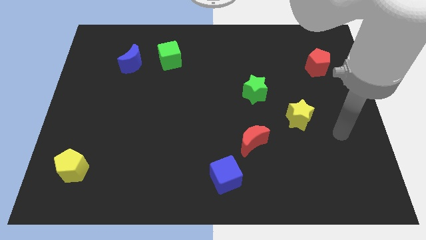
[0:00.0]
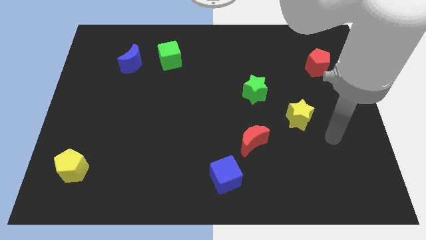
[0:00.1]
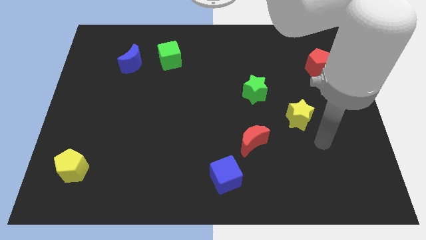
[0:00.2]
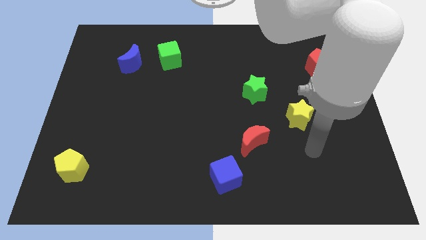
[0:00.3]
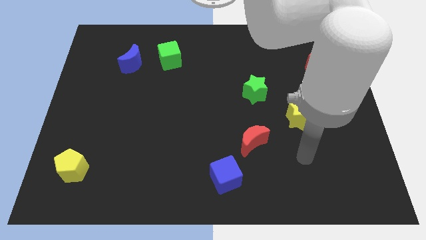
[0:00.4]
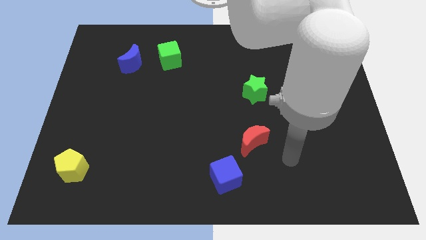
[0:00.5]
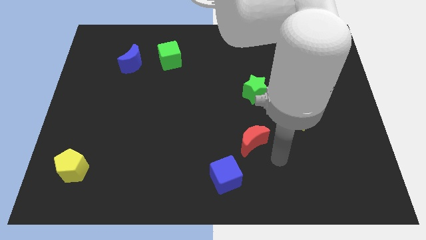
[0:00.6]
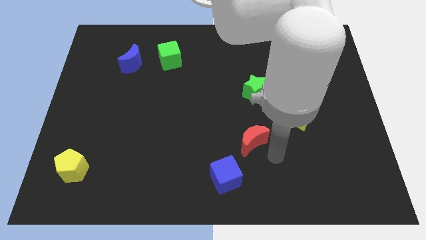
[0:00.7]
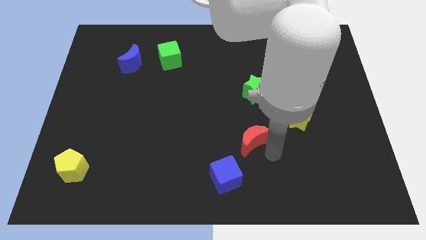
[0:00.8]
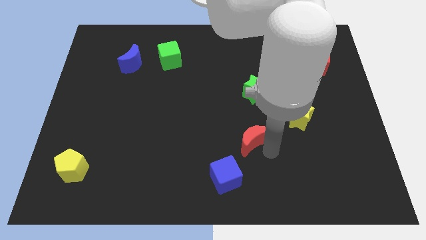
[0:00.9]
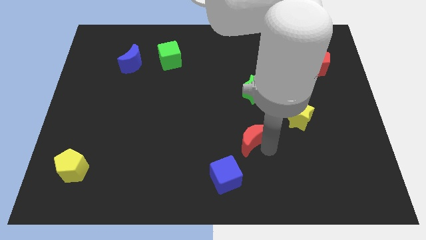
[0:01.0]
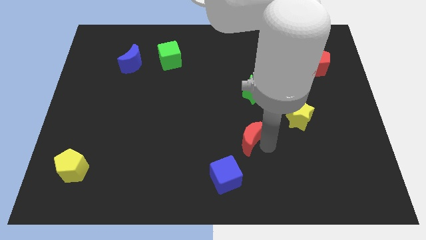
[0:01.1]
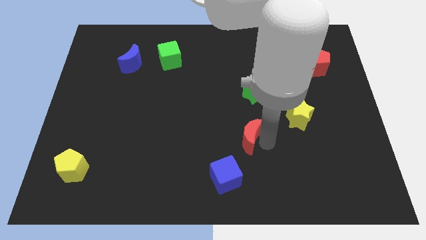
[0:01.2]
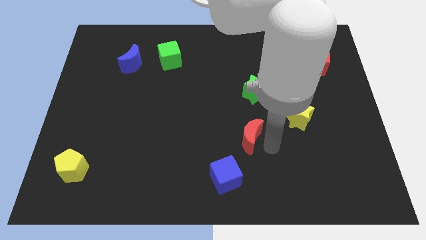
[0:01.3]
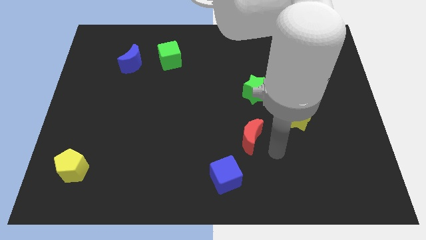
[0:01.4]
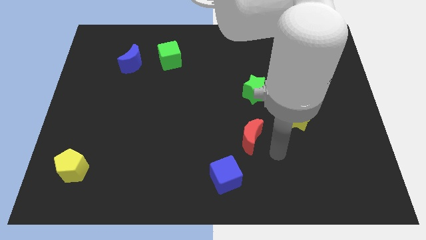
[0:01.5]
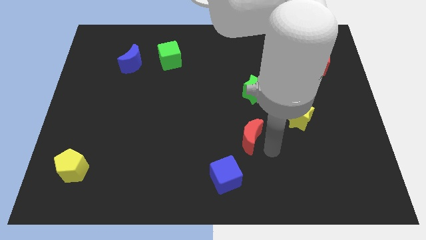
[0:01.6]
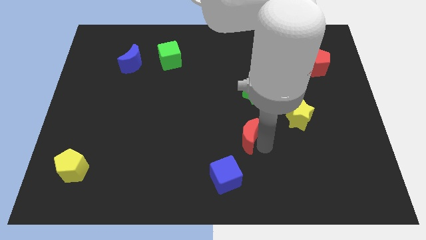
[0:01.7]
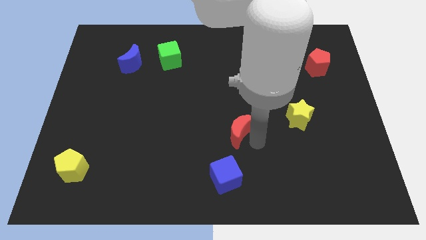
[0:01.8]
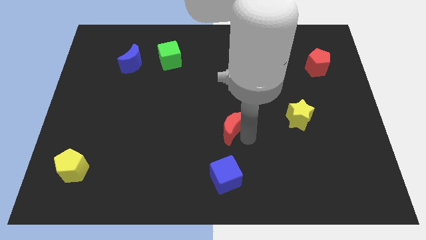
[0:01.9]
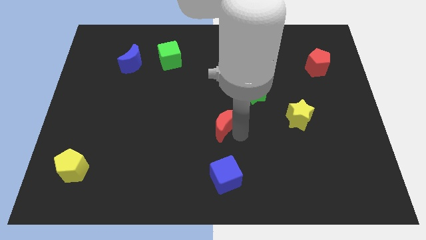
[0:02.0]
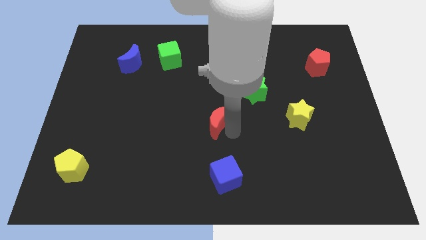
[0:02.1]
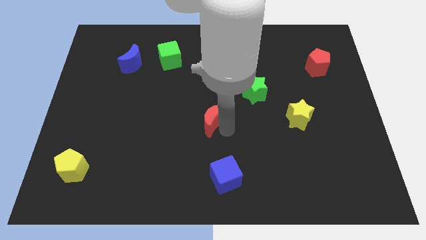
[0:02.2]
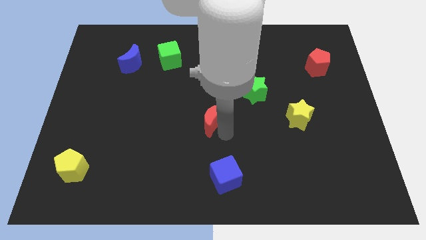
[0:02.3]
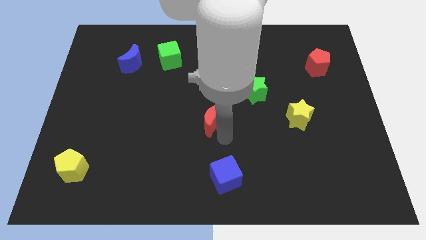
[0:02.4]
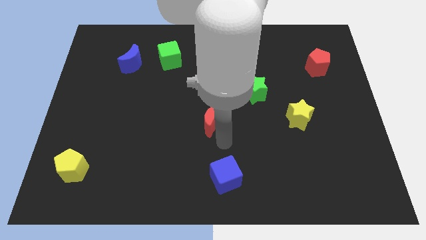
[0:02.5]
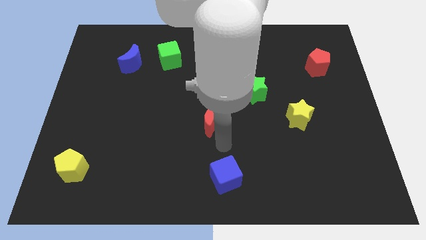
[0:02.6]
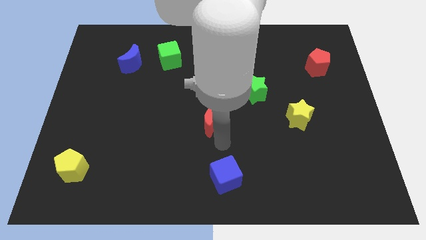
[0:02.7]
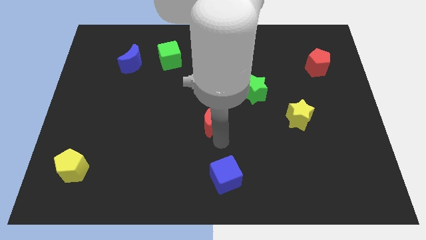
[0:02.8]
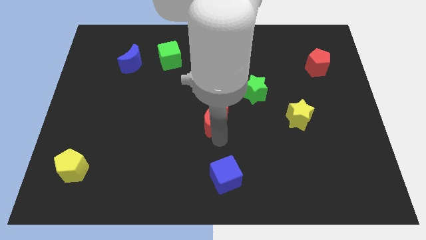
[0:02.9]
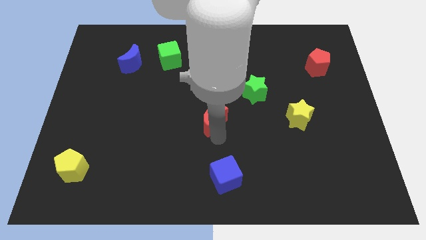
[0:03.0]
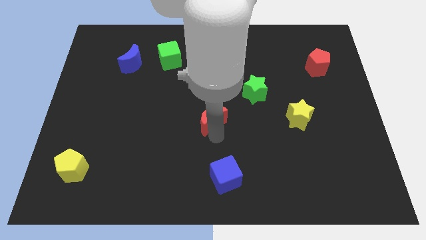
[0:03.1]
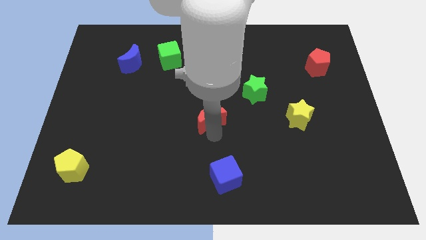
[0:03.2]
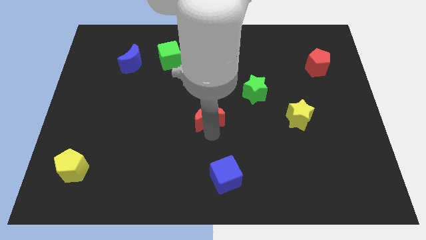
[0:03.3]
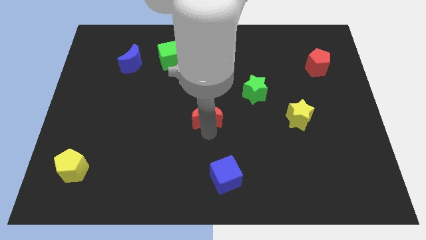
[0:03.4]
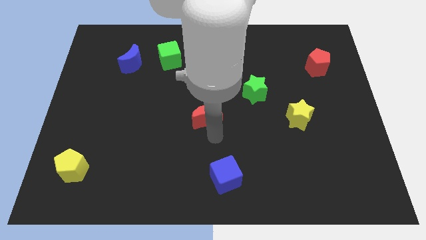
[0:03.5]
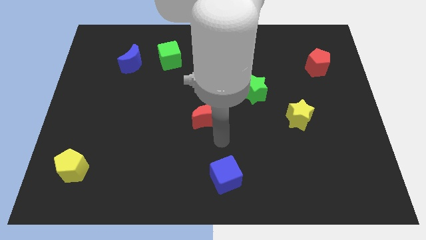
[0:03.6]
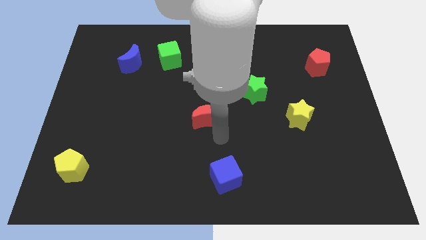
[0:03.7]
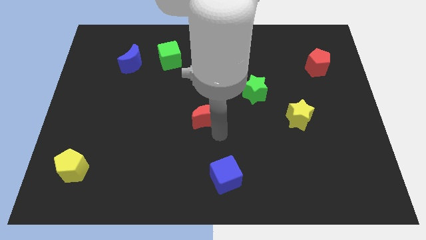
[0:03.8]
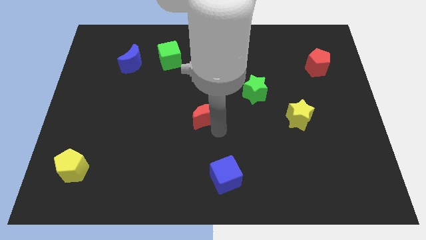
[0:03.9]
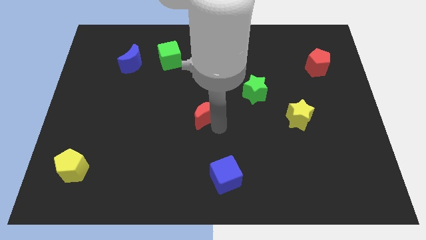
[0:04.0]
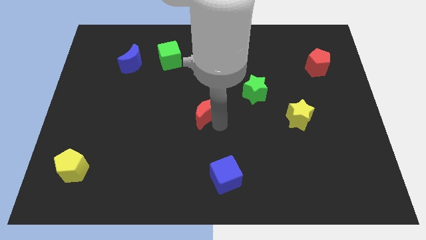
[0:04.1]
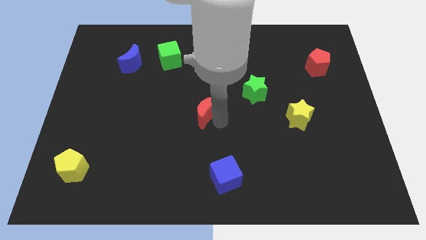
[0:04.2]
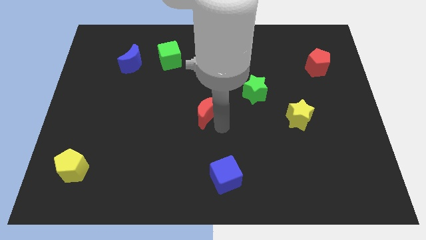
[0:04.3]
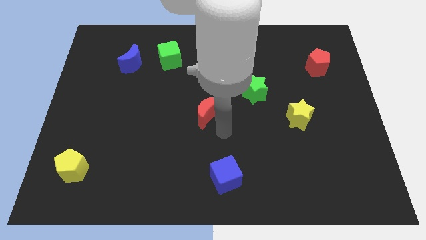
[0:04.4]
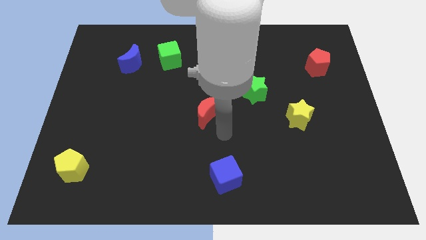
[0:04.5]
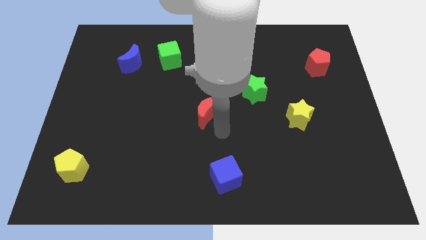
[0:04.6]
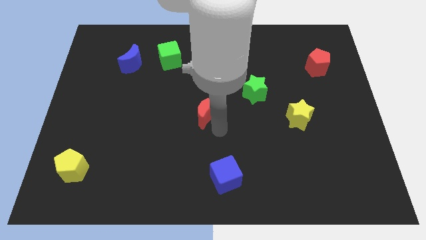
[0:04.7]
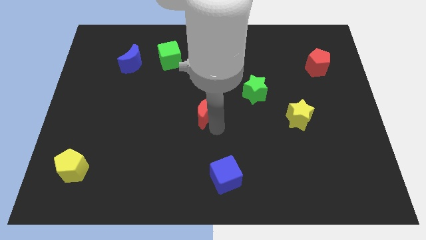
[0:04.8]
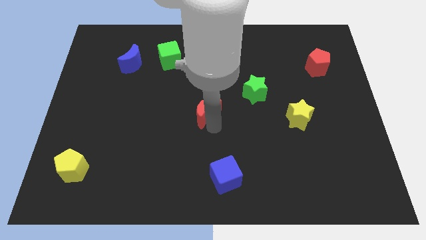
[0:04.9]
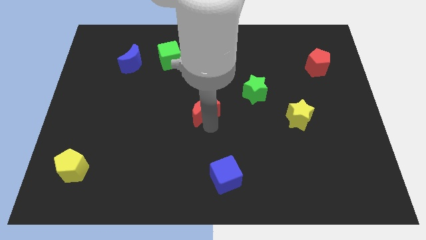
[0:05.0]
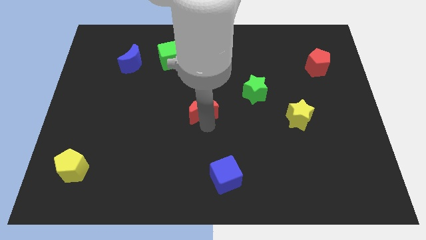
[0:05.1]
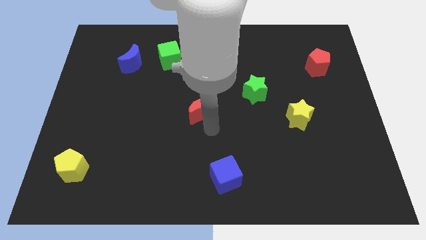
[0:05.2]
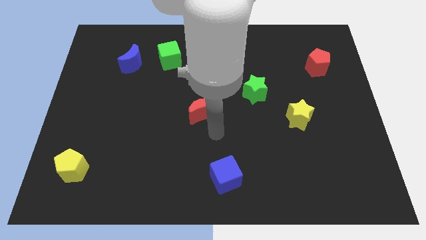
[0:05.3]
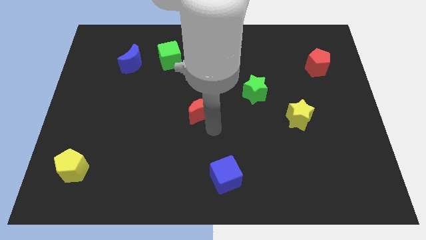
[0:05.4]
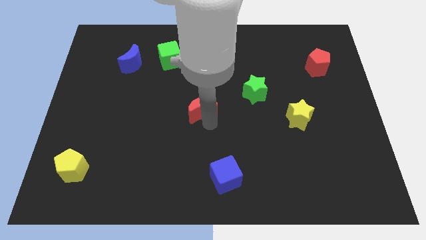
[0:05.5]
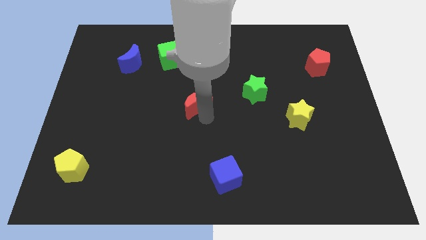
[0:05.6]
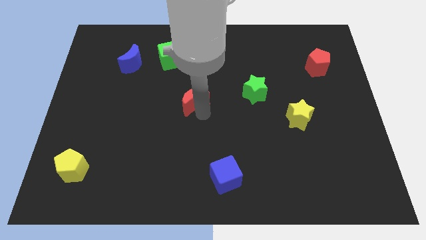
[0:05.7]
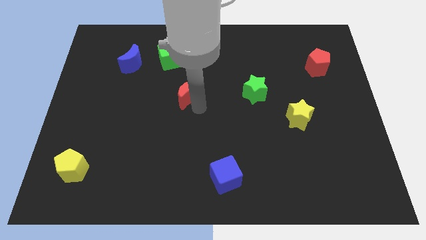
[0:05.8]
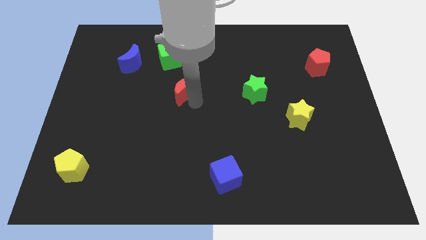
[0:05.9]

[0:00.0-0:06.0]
slide the red moon upwards and to the left diagonally

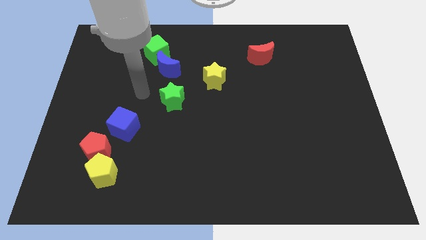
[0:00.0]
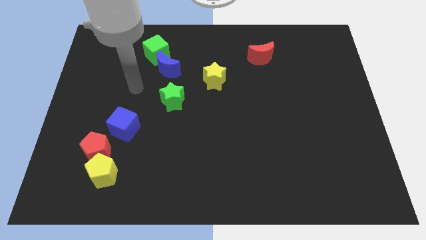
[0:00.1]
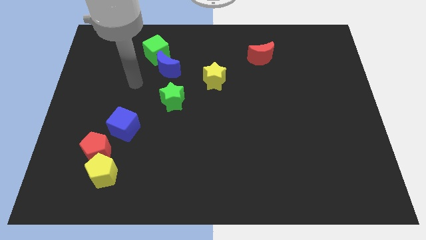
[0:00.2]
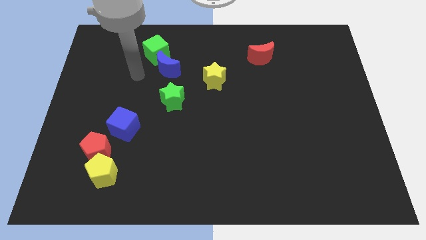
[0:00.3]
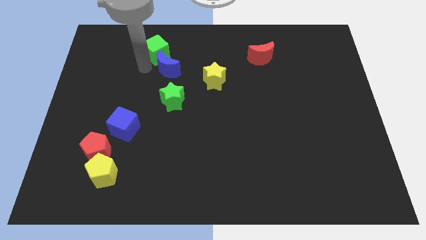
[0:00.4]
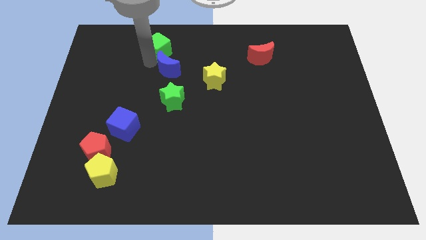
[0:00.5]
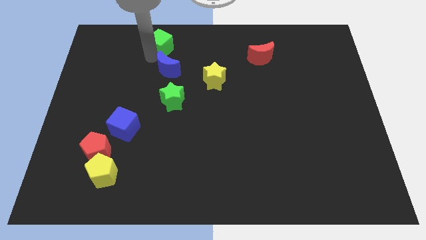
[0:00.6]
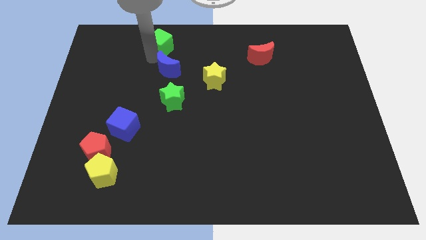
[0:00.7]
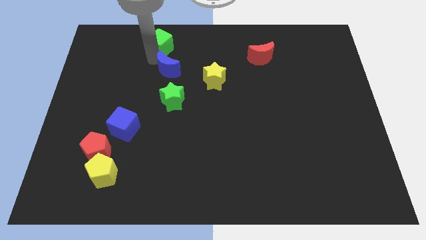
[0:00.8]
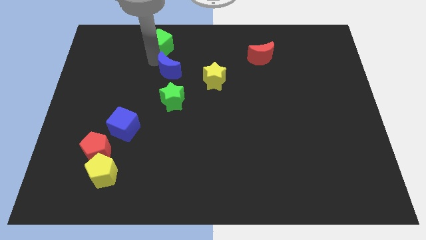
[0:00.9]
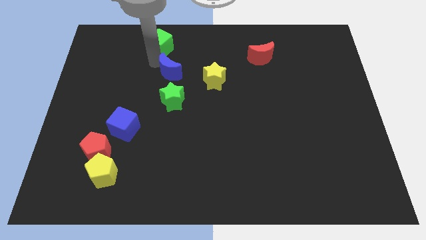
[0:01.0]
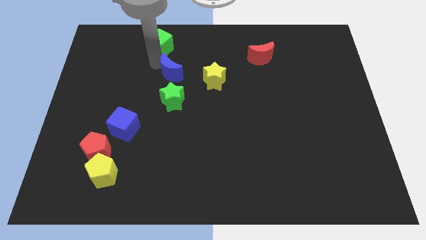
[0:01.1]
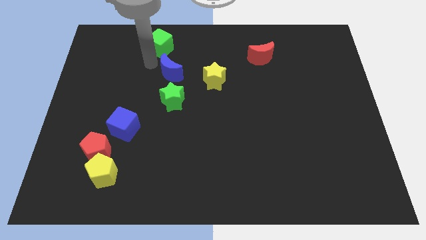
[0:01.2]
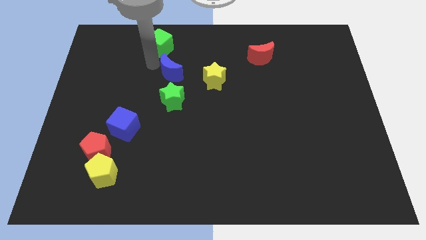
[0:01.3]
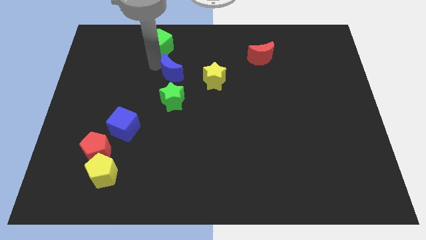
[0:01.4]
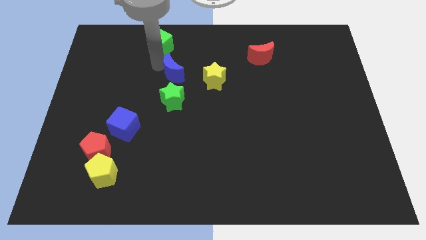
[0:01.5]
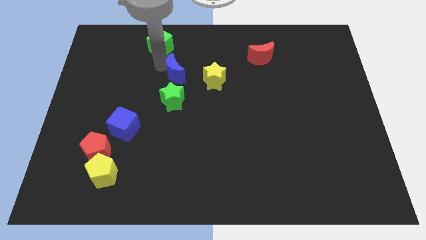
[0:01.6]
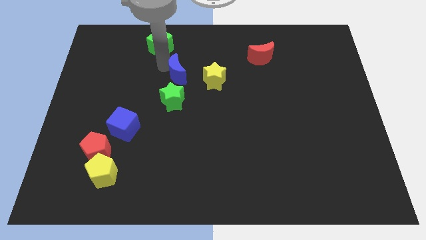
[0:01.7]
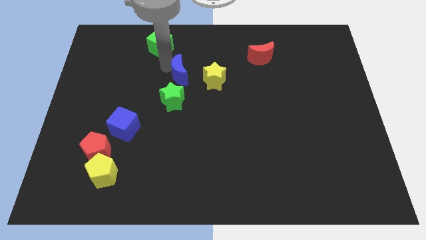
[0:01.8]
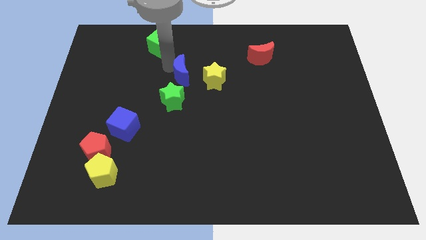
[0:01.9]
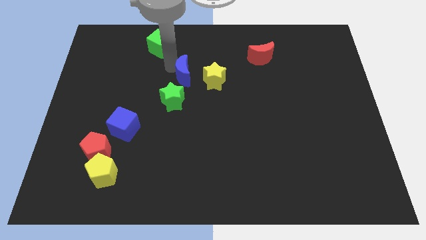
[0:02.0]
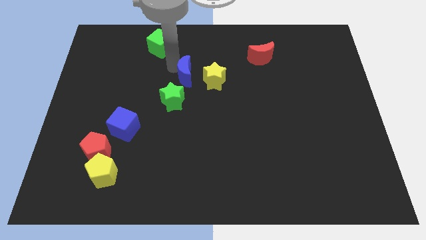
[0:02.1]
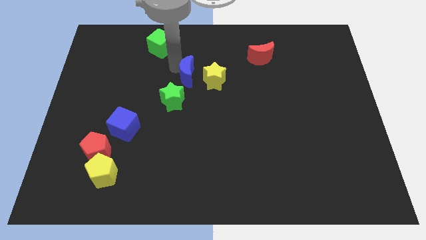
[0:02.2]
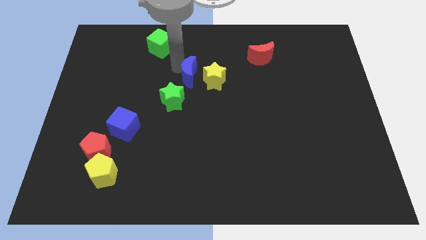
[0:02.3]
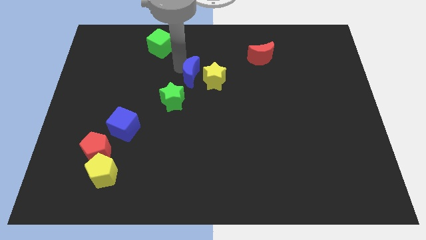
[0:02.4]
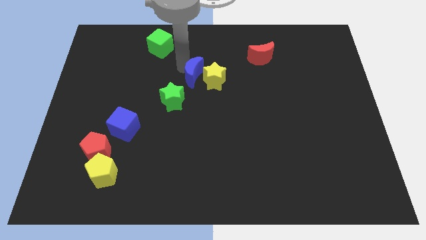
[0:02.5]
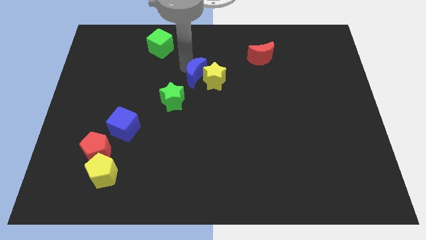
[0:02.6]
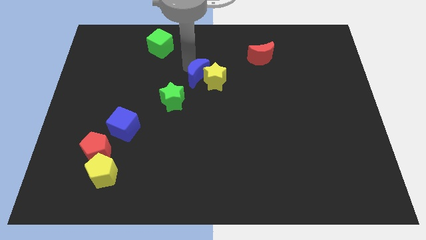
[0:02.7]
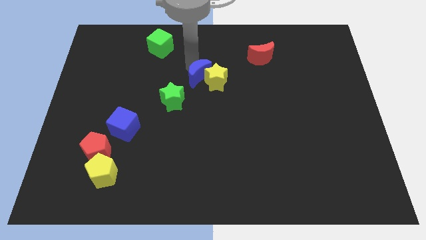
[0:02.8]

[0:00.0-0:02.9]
slightly move the blue moon down and to the right diagonally
